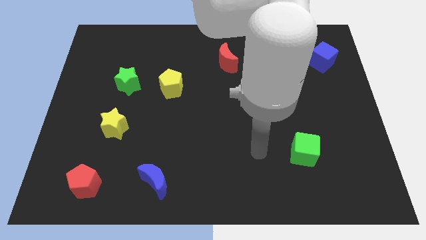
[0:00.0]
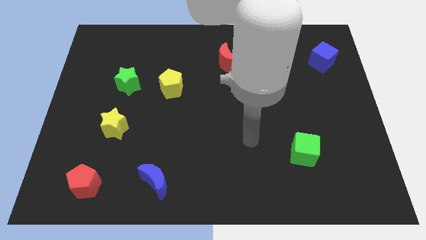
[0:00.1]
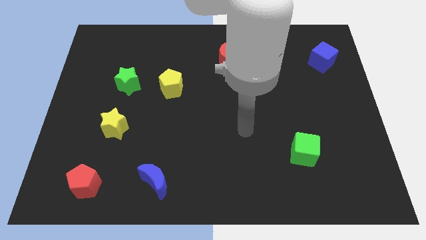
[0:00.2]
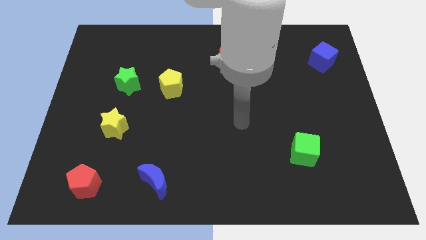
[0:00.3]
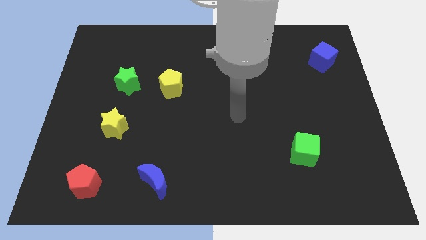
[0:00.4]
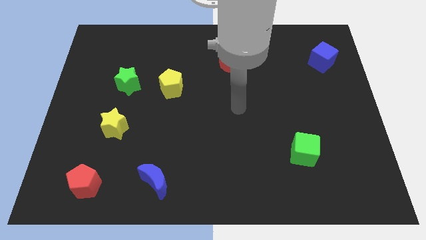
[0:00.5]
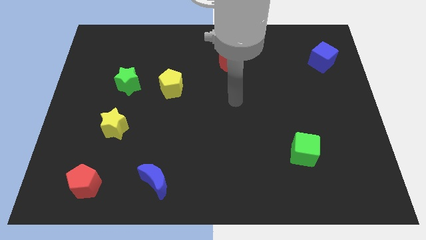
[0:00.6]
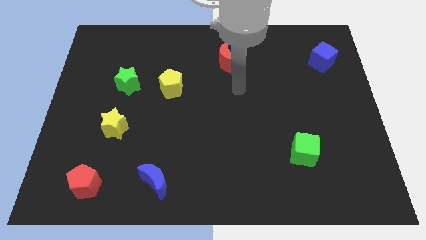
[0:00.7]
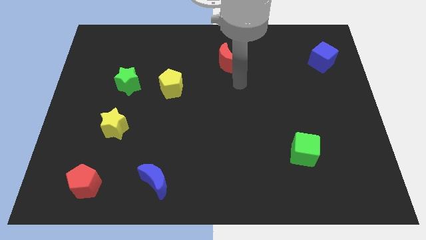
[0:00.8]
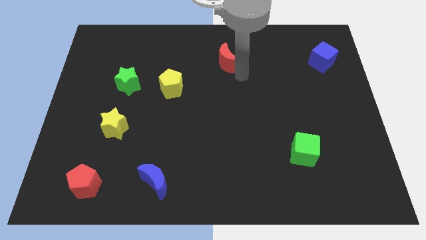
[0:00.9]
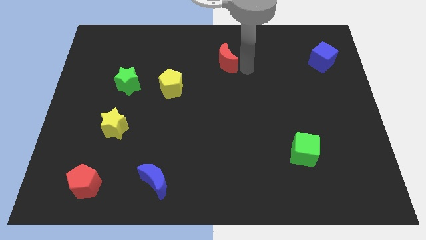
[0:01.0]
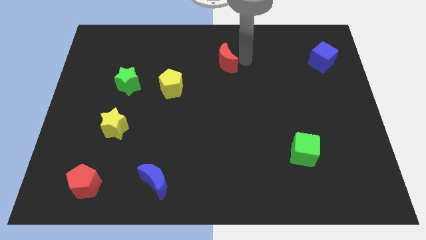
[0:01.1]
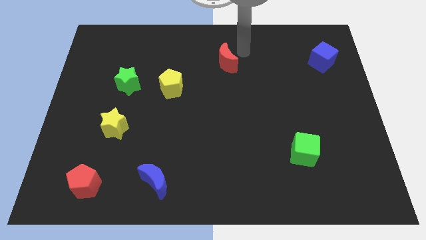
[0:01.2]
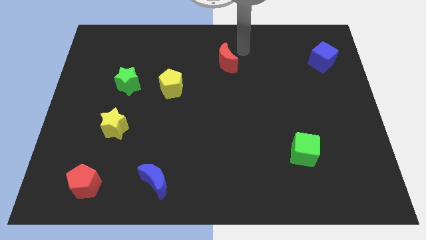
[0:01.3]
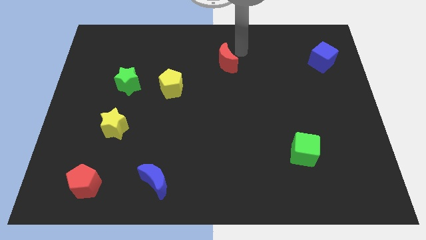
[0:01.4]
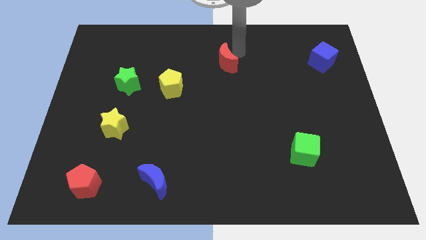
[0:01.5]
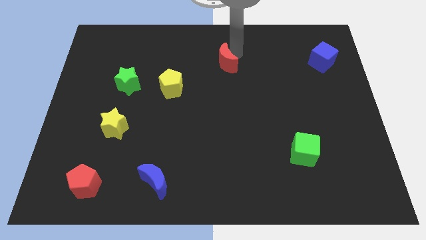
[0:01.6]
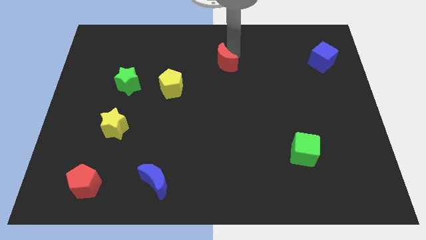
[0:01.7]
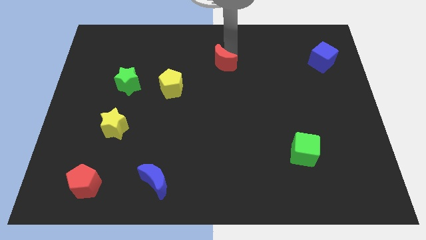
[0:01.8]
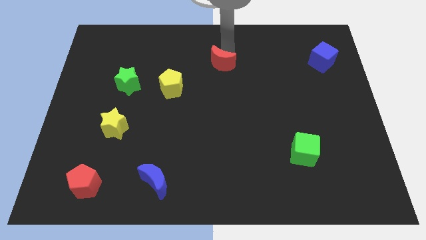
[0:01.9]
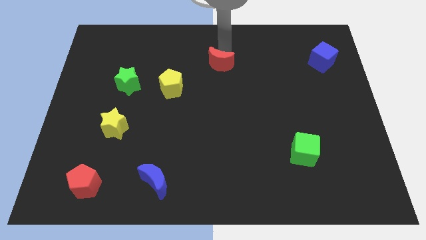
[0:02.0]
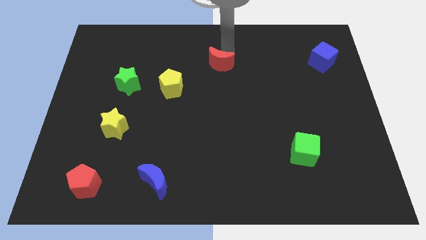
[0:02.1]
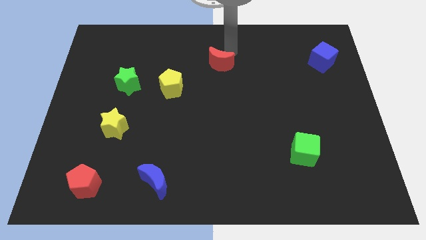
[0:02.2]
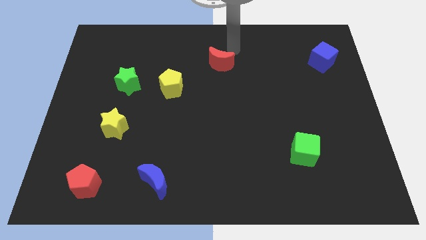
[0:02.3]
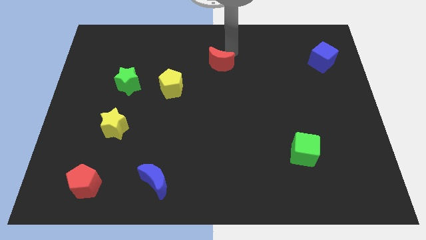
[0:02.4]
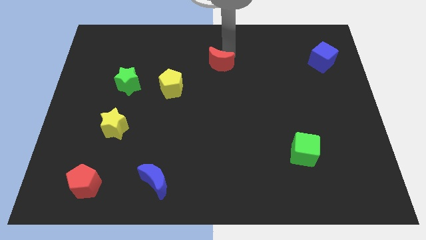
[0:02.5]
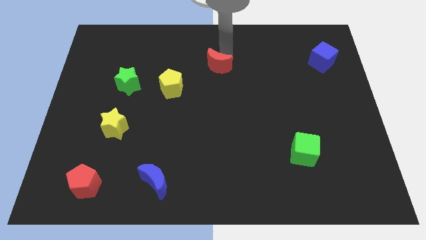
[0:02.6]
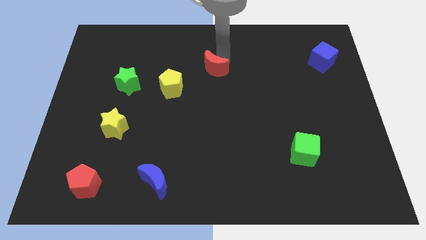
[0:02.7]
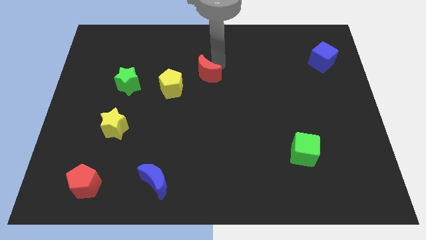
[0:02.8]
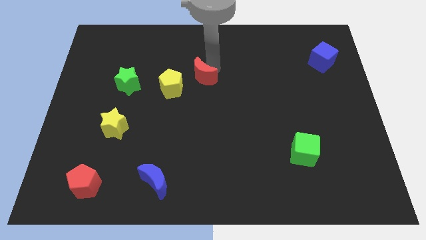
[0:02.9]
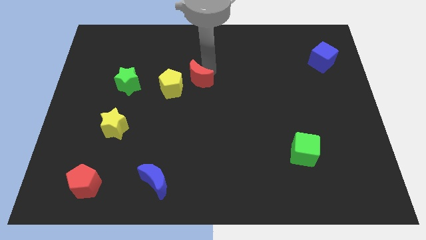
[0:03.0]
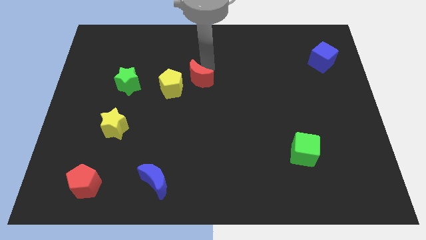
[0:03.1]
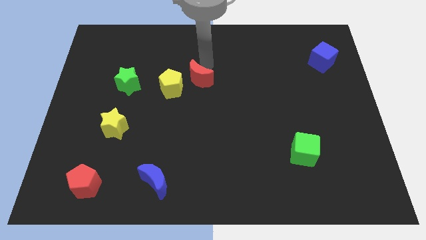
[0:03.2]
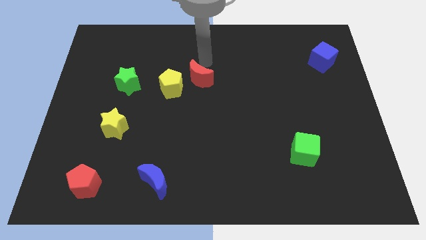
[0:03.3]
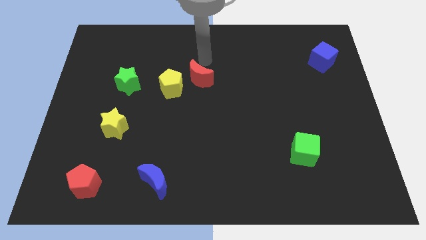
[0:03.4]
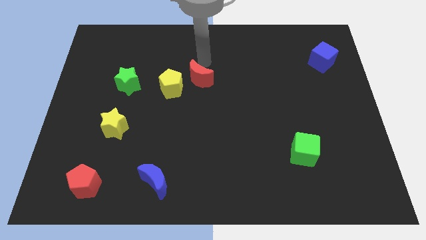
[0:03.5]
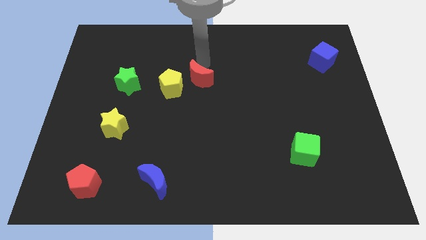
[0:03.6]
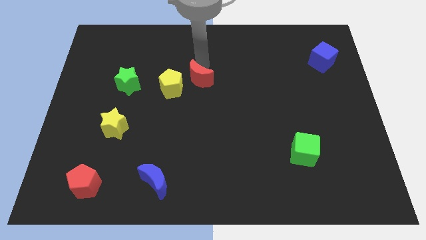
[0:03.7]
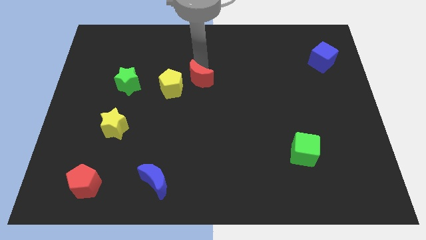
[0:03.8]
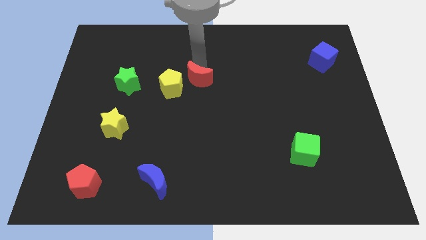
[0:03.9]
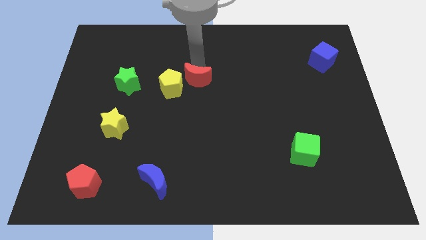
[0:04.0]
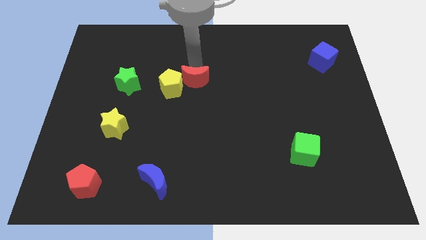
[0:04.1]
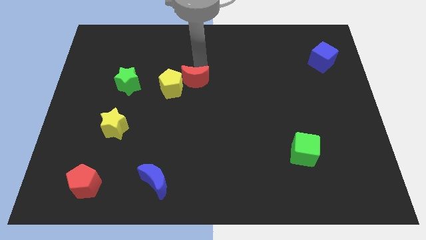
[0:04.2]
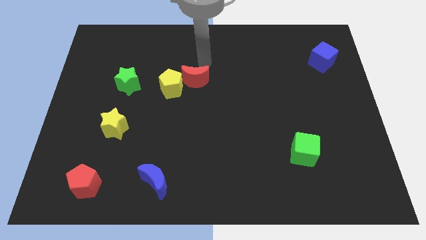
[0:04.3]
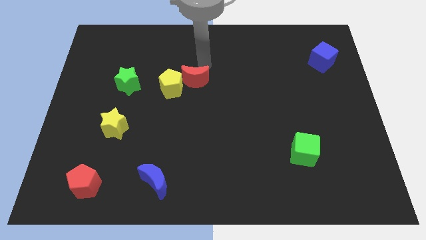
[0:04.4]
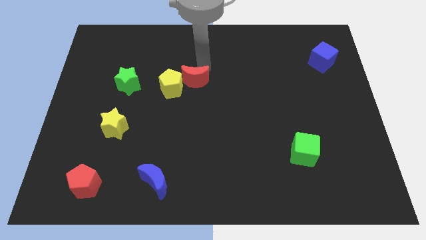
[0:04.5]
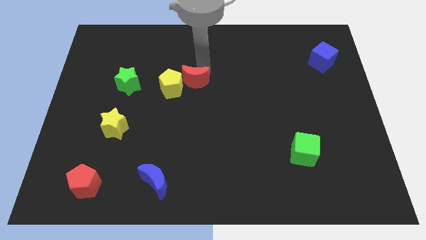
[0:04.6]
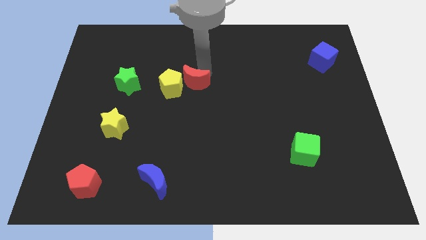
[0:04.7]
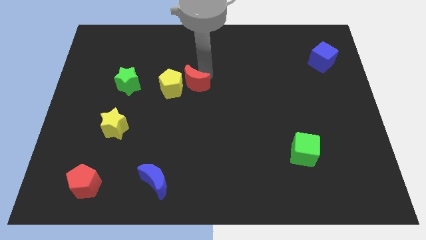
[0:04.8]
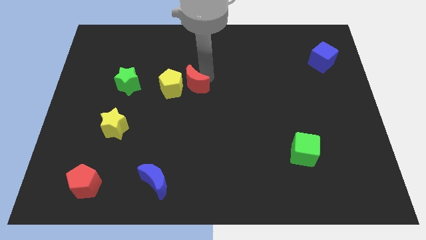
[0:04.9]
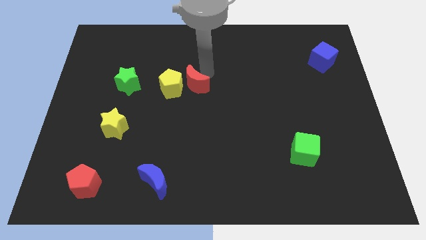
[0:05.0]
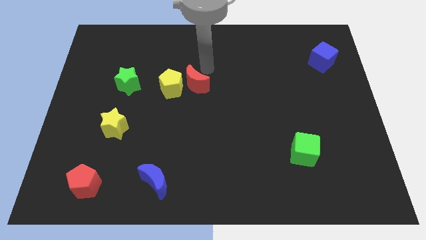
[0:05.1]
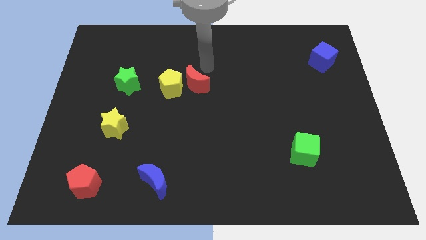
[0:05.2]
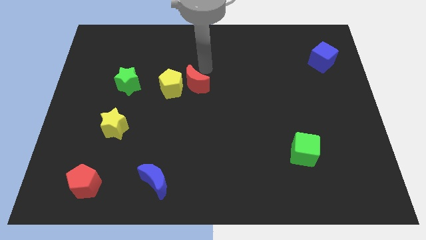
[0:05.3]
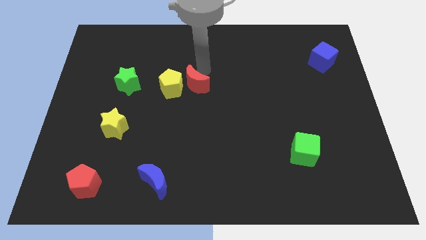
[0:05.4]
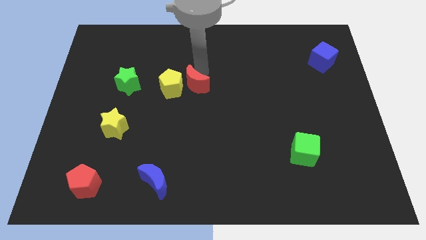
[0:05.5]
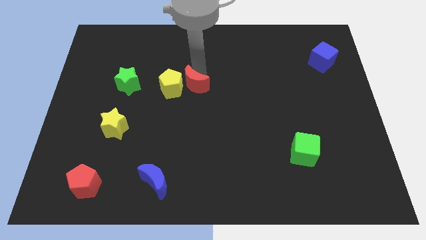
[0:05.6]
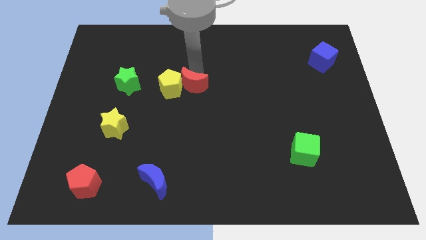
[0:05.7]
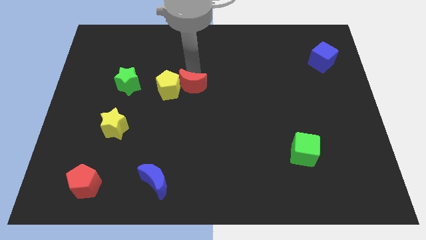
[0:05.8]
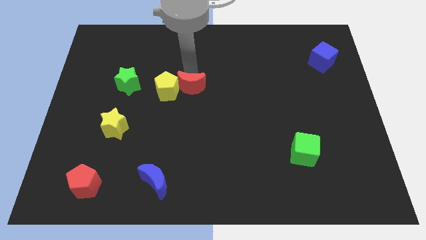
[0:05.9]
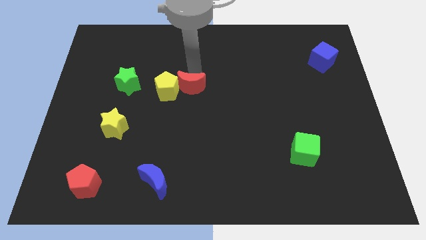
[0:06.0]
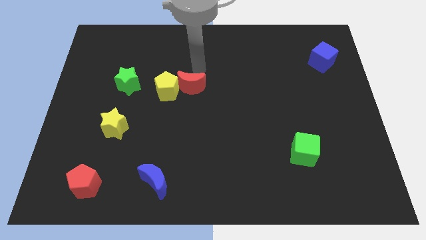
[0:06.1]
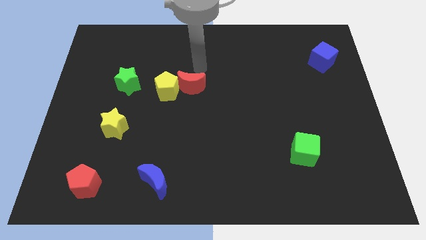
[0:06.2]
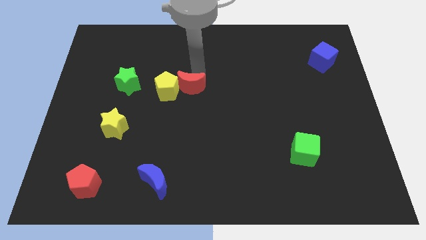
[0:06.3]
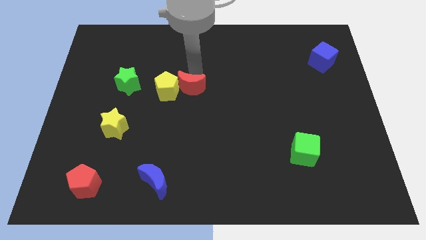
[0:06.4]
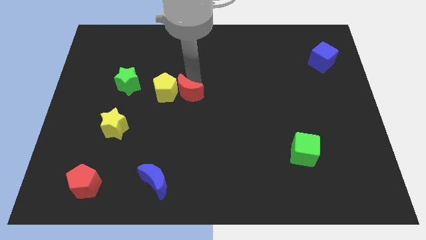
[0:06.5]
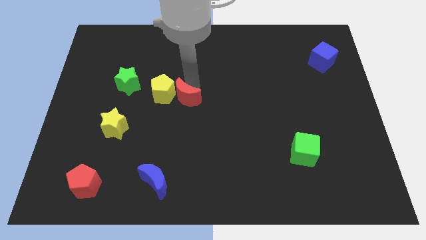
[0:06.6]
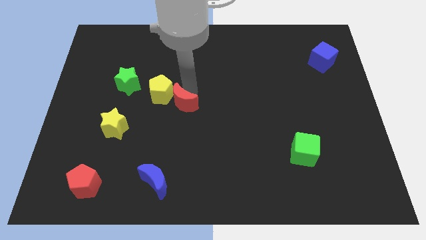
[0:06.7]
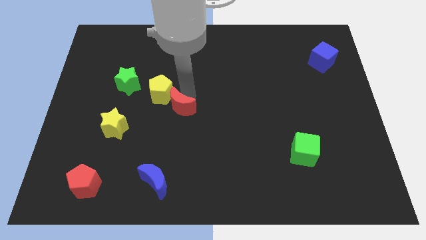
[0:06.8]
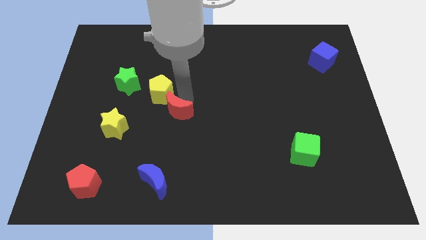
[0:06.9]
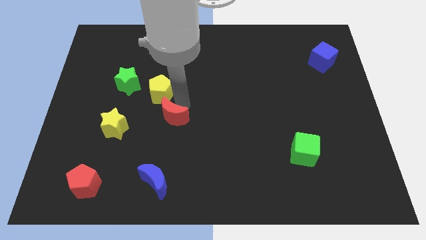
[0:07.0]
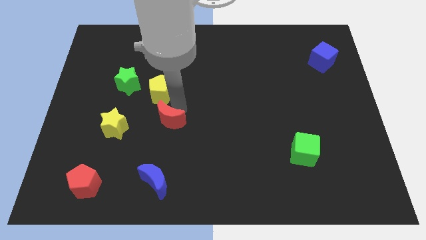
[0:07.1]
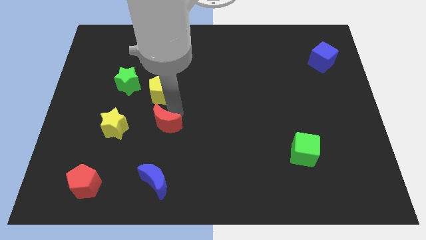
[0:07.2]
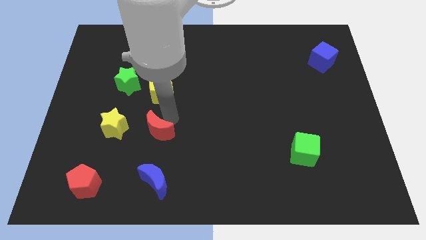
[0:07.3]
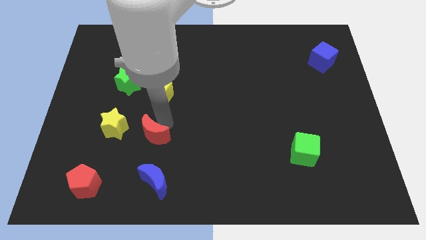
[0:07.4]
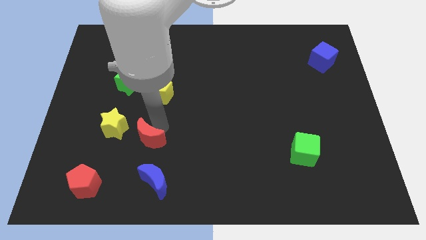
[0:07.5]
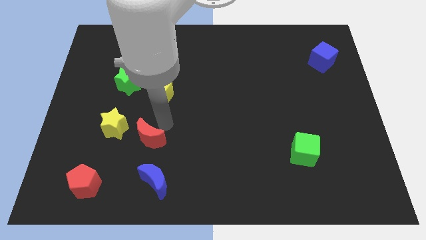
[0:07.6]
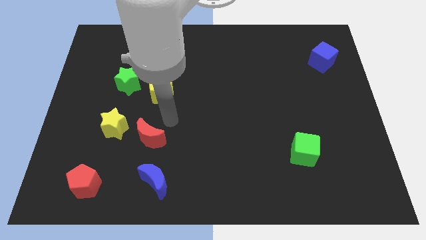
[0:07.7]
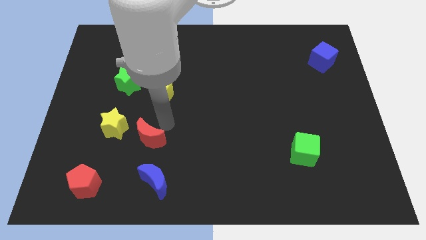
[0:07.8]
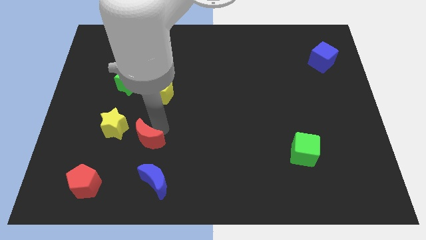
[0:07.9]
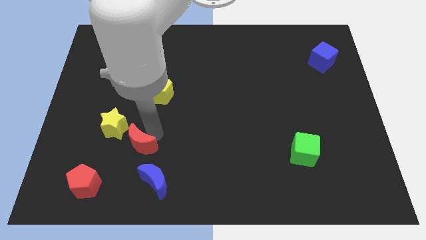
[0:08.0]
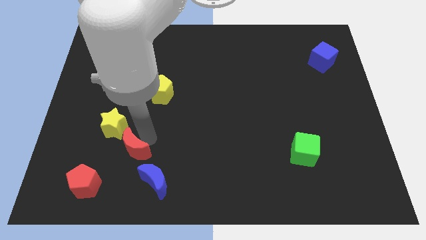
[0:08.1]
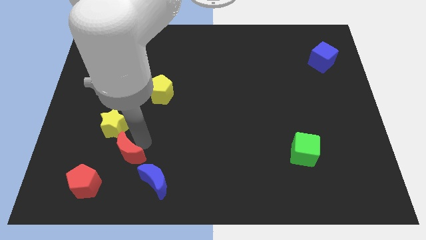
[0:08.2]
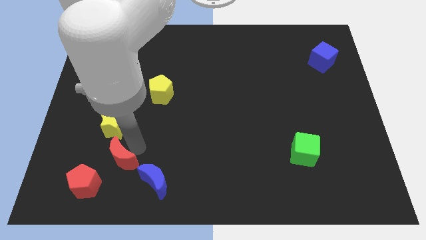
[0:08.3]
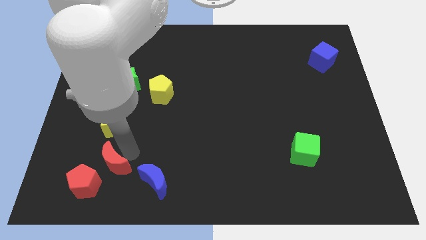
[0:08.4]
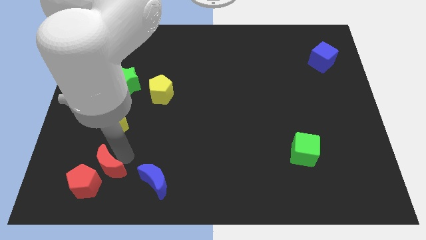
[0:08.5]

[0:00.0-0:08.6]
move the red moon close to the red pentagon
